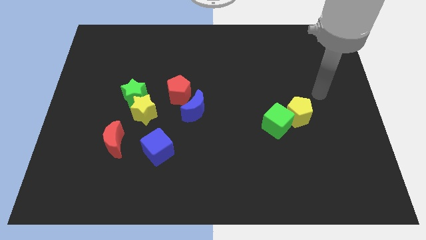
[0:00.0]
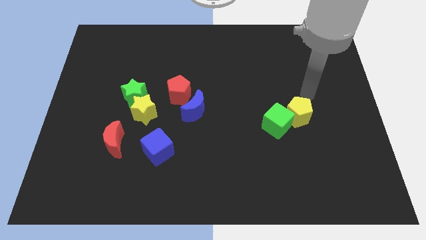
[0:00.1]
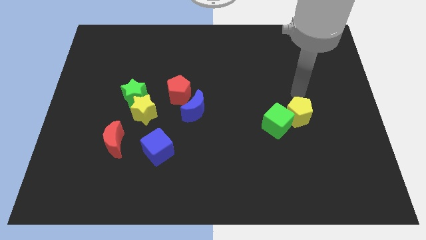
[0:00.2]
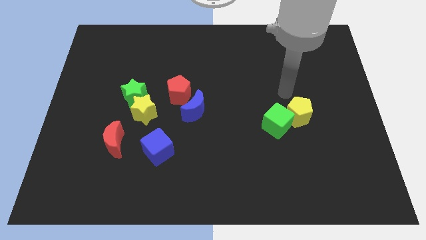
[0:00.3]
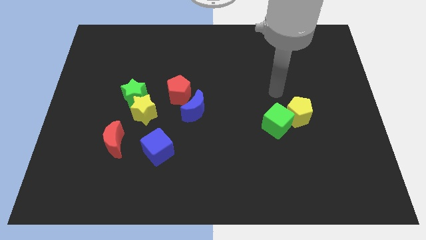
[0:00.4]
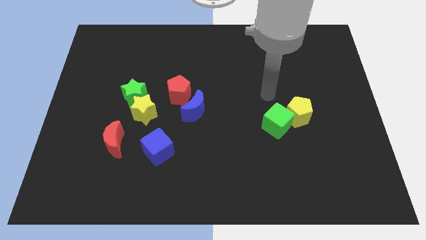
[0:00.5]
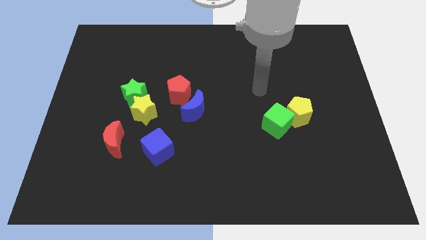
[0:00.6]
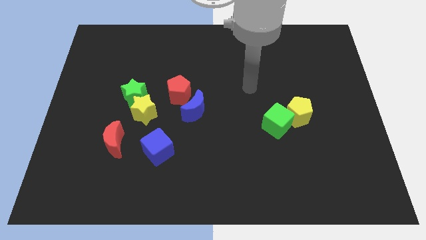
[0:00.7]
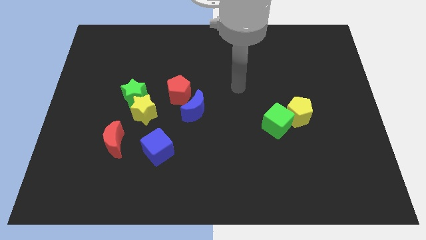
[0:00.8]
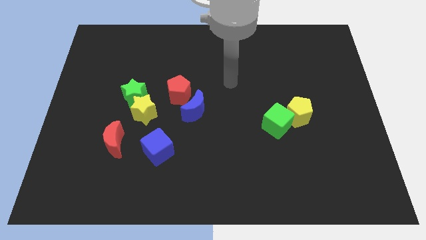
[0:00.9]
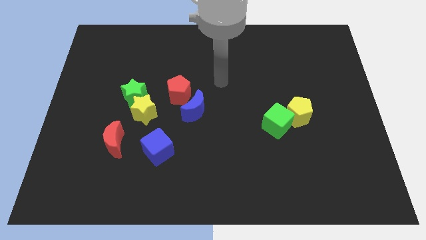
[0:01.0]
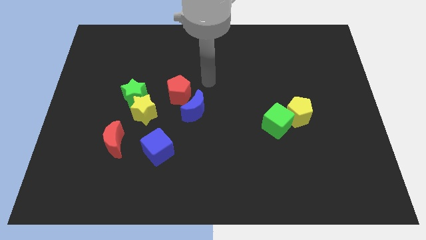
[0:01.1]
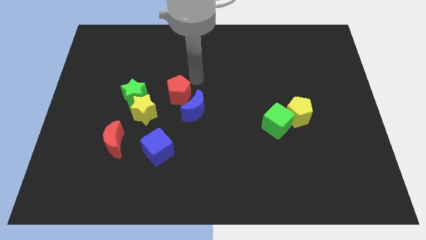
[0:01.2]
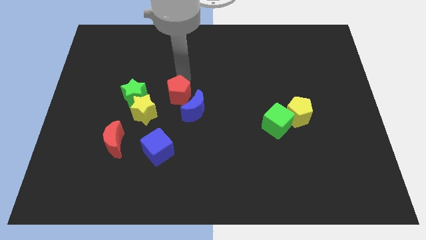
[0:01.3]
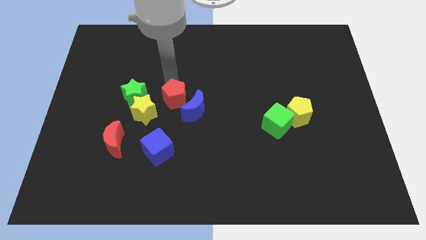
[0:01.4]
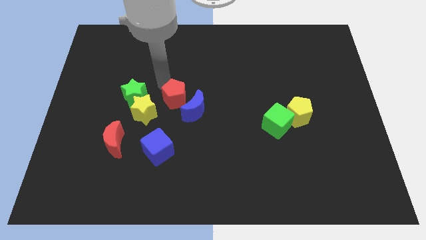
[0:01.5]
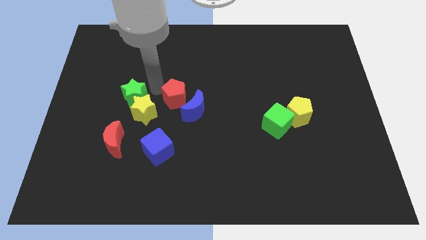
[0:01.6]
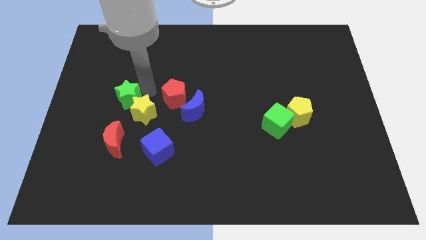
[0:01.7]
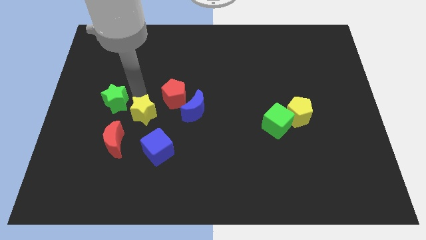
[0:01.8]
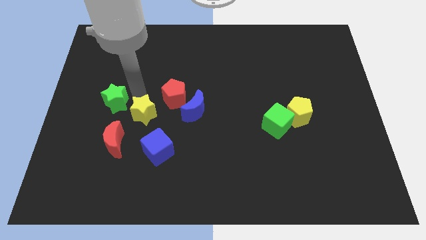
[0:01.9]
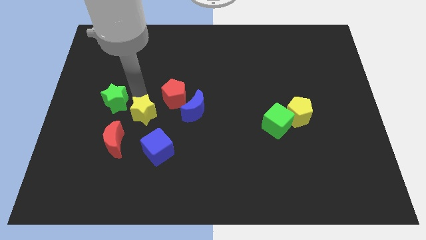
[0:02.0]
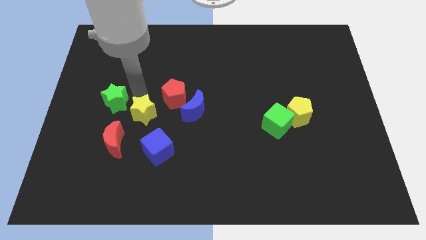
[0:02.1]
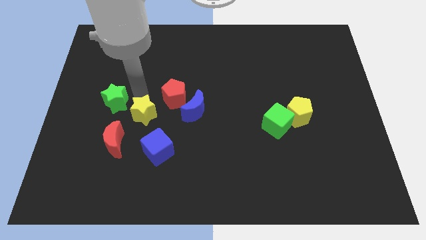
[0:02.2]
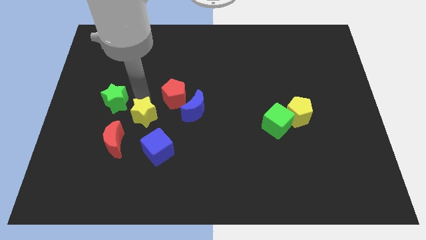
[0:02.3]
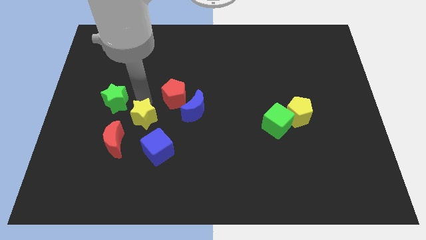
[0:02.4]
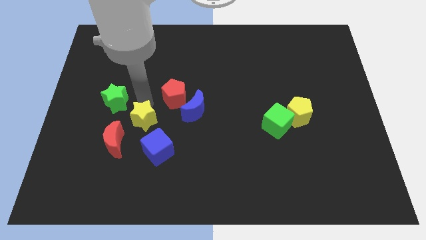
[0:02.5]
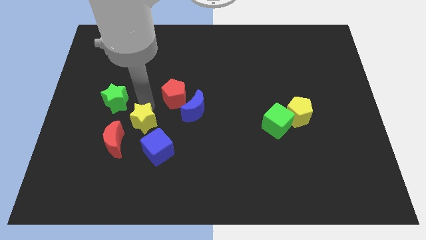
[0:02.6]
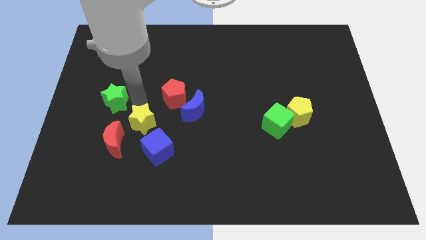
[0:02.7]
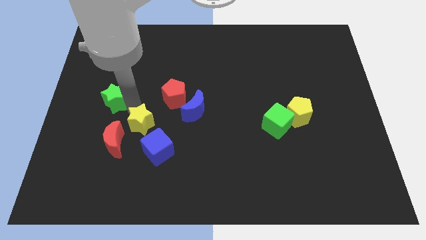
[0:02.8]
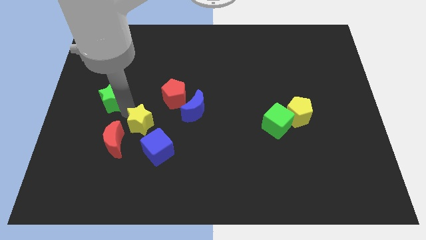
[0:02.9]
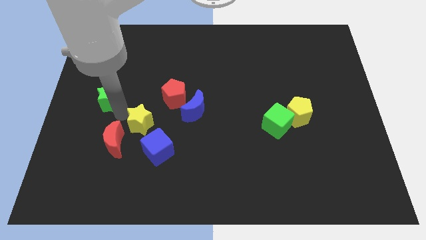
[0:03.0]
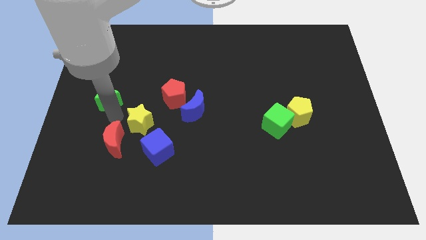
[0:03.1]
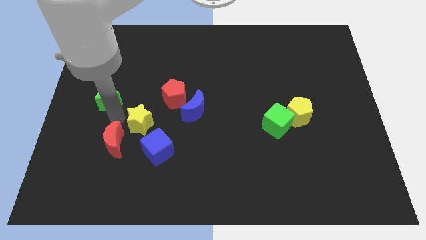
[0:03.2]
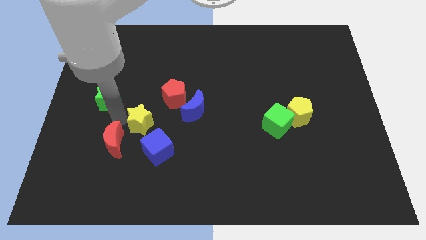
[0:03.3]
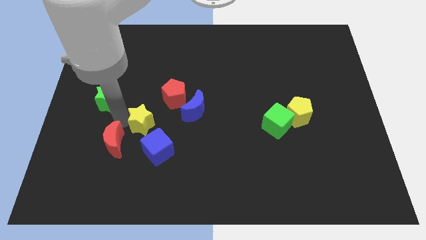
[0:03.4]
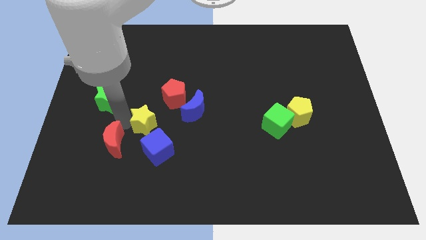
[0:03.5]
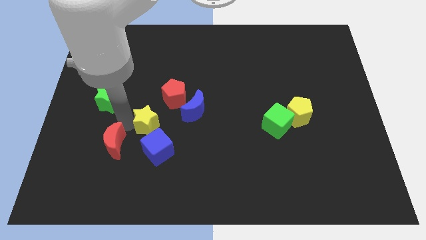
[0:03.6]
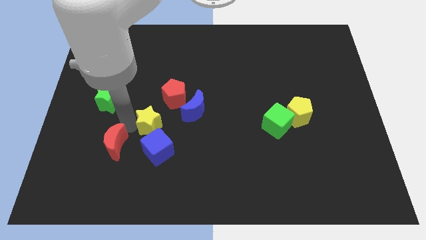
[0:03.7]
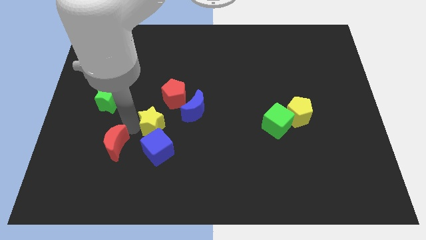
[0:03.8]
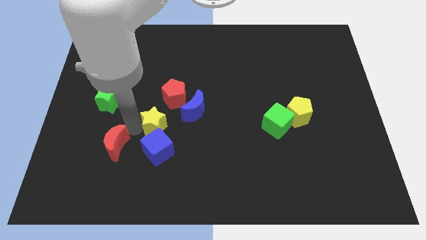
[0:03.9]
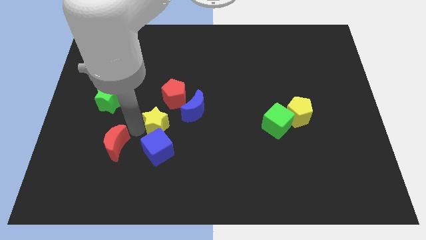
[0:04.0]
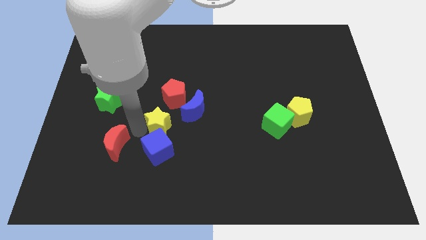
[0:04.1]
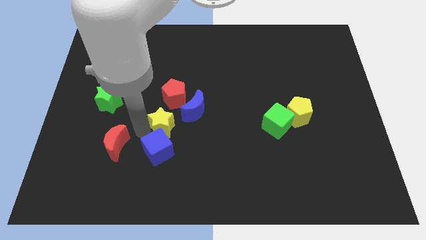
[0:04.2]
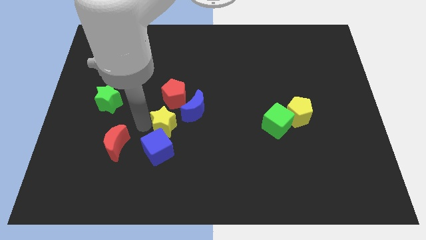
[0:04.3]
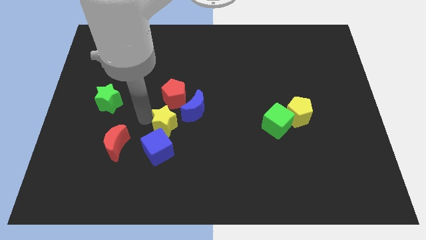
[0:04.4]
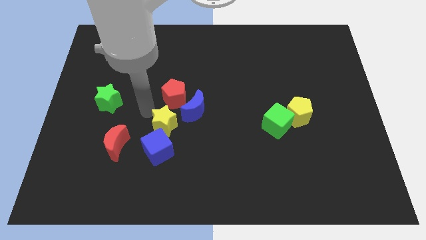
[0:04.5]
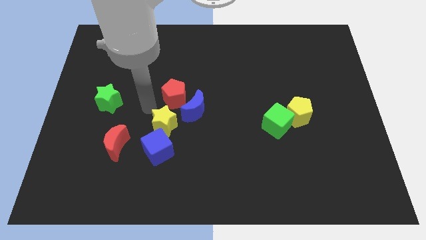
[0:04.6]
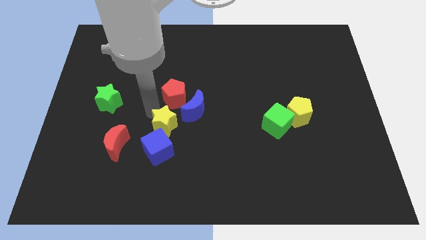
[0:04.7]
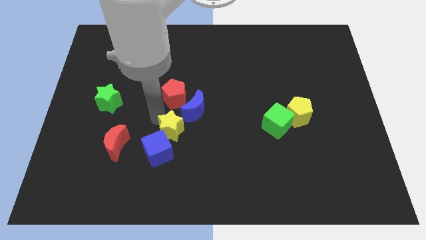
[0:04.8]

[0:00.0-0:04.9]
slightly move the yellow star downwards and right diagonally

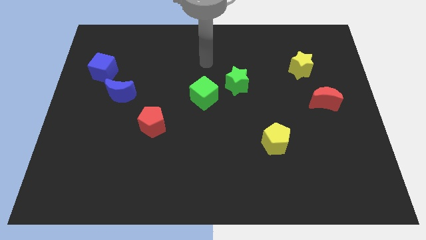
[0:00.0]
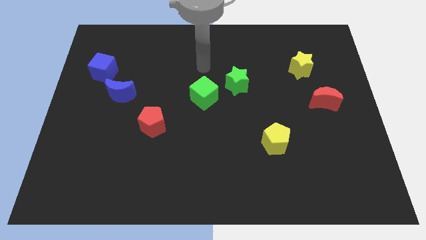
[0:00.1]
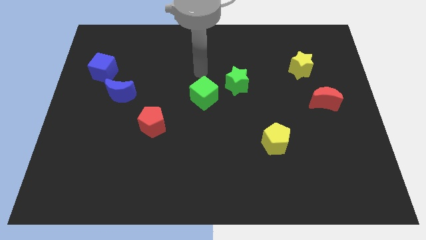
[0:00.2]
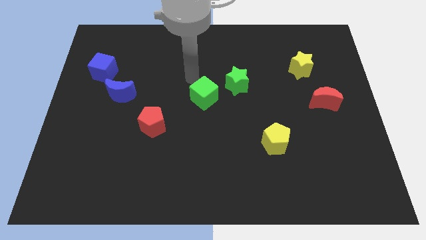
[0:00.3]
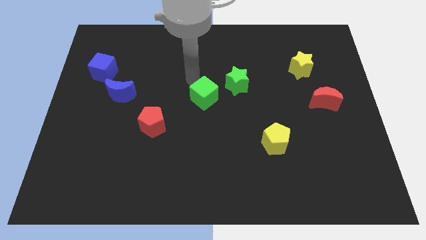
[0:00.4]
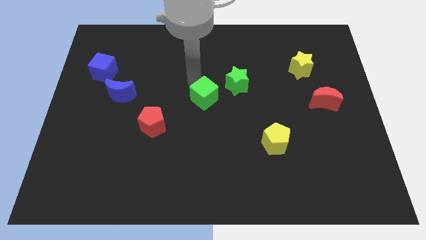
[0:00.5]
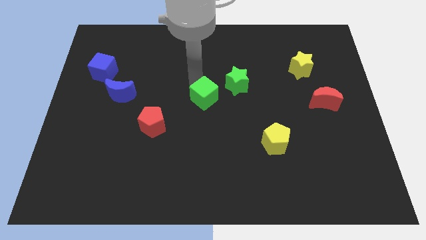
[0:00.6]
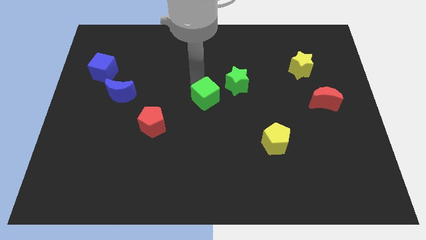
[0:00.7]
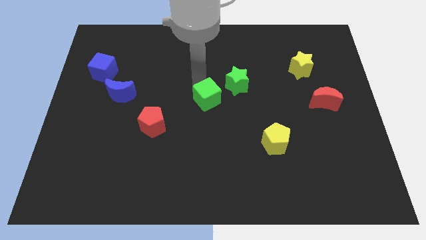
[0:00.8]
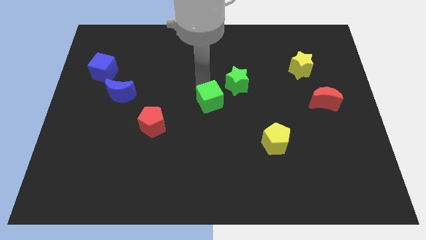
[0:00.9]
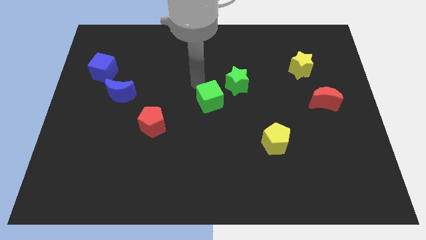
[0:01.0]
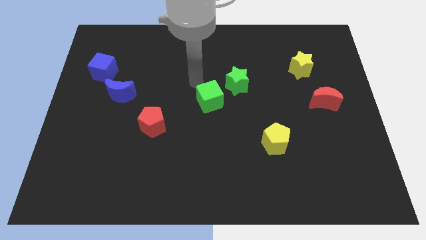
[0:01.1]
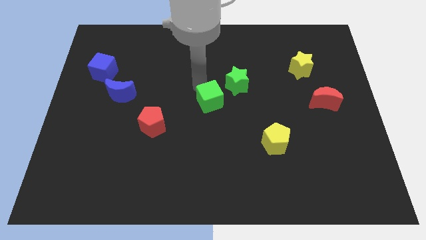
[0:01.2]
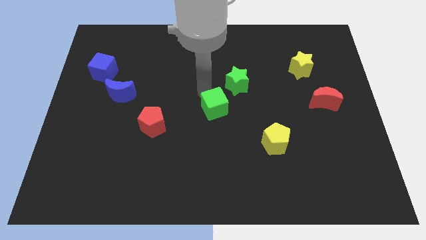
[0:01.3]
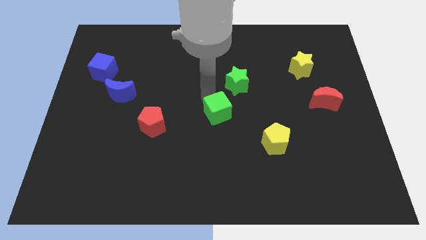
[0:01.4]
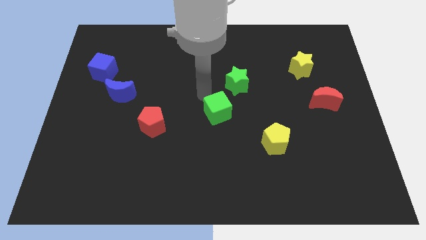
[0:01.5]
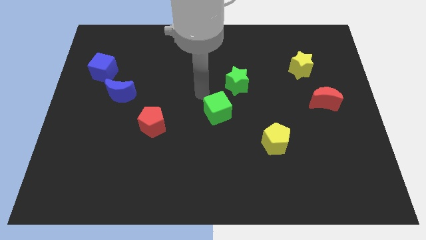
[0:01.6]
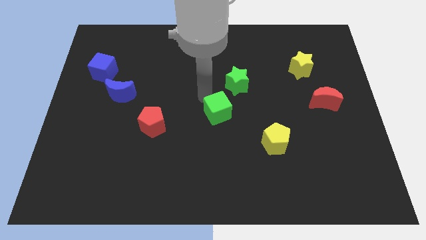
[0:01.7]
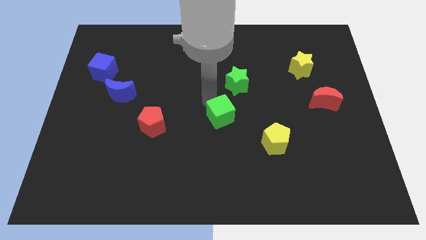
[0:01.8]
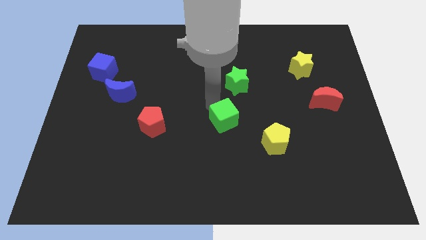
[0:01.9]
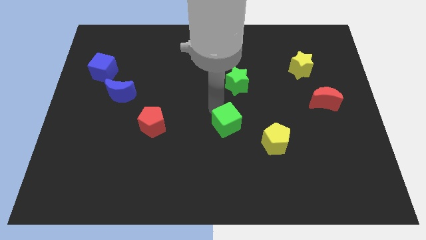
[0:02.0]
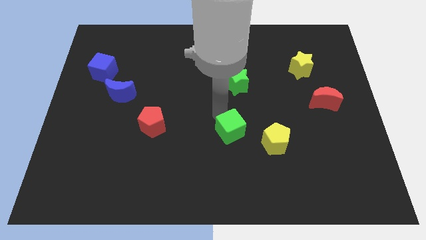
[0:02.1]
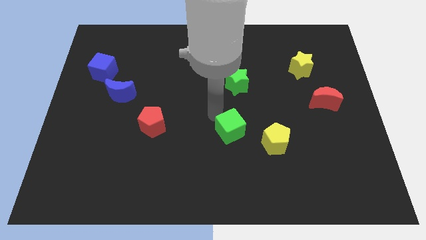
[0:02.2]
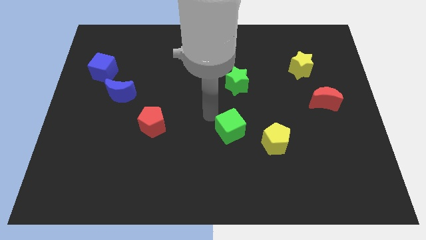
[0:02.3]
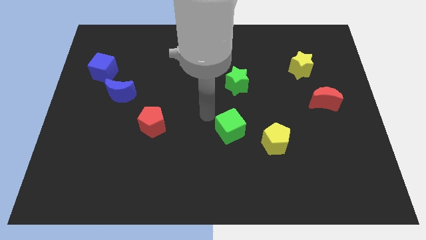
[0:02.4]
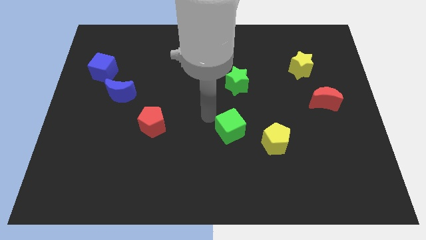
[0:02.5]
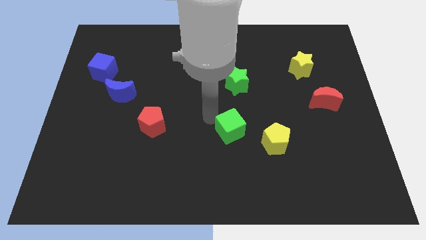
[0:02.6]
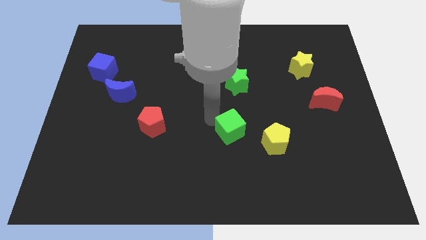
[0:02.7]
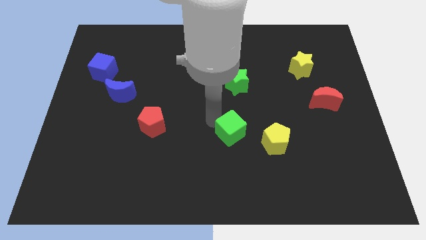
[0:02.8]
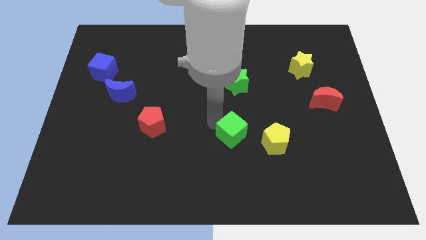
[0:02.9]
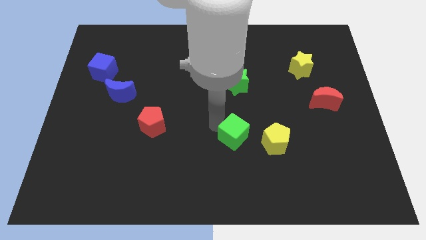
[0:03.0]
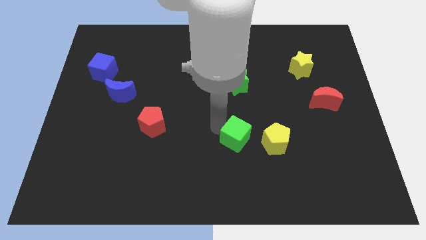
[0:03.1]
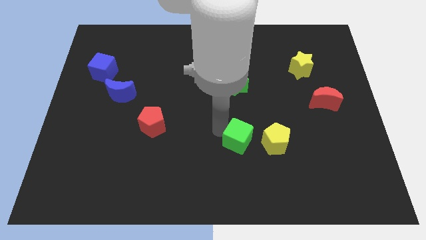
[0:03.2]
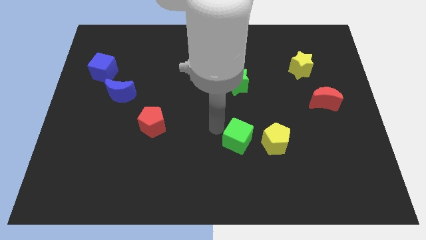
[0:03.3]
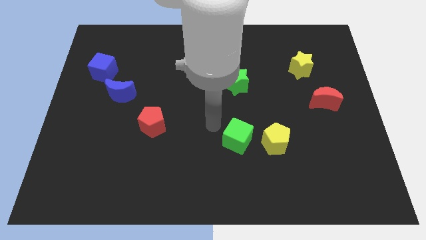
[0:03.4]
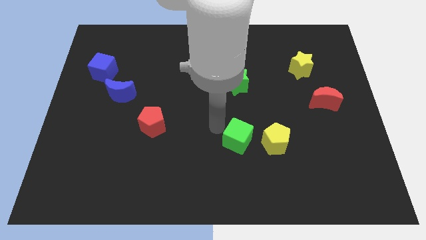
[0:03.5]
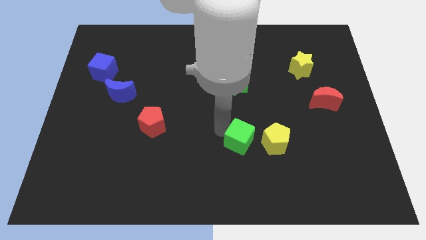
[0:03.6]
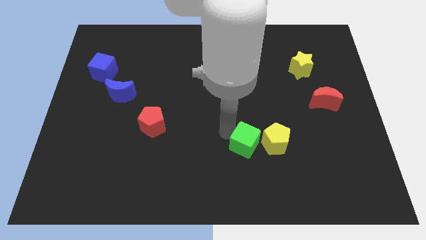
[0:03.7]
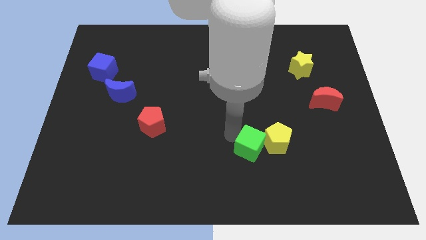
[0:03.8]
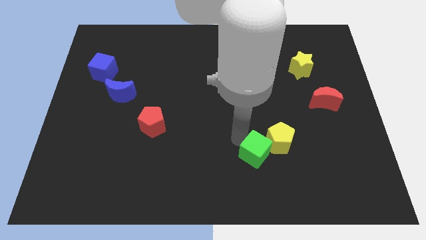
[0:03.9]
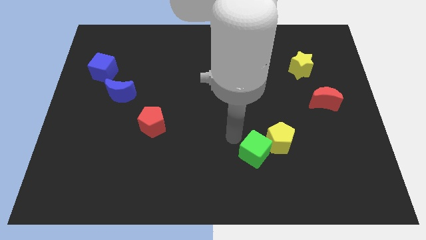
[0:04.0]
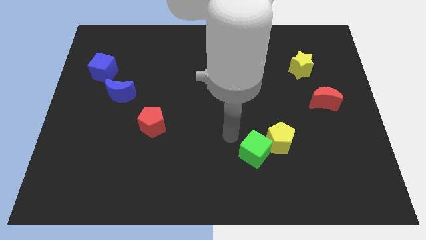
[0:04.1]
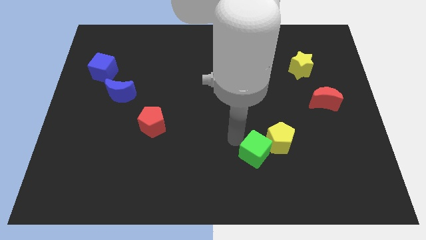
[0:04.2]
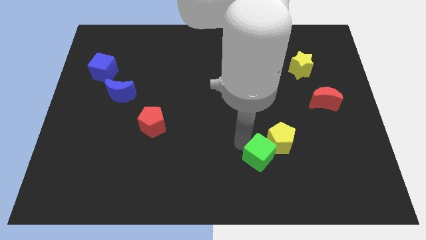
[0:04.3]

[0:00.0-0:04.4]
move the green cube diagonally downwards and to the right
